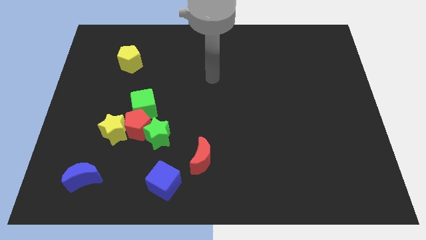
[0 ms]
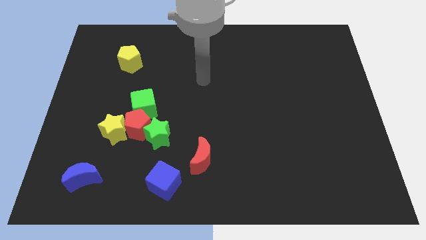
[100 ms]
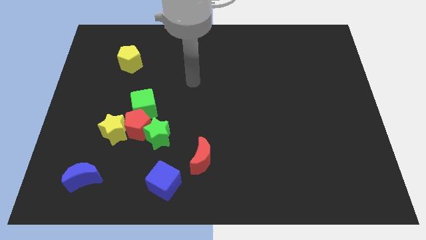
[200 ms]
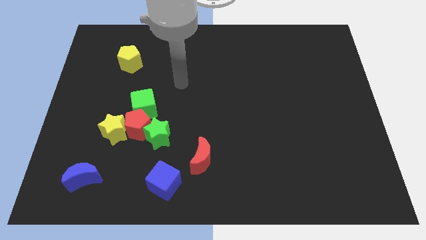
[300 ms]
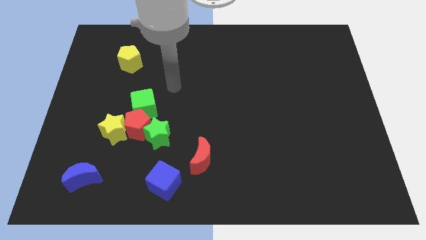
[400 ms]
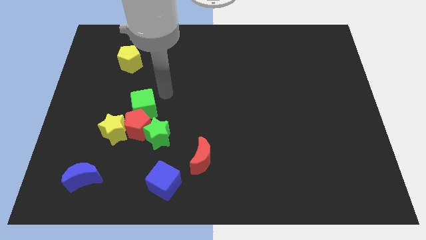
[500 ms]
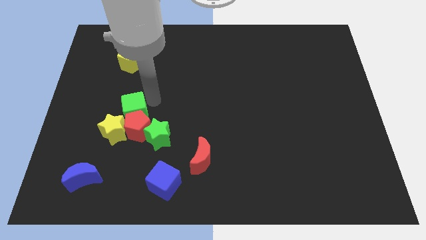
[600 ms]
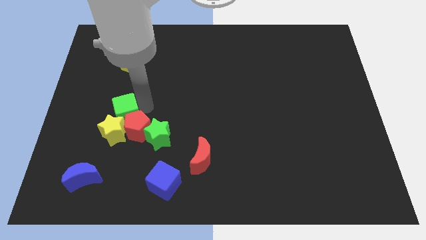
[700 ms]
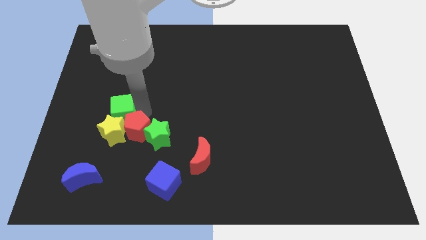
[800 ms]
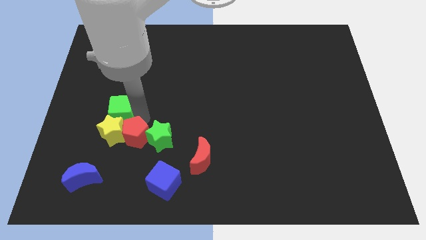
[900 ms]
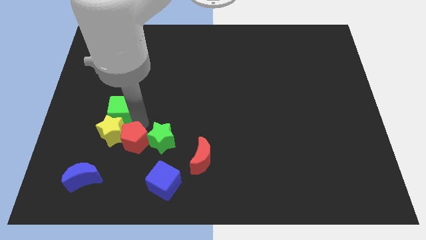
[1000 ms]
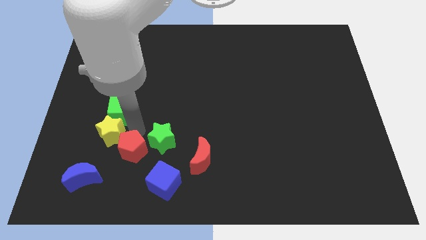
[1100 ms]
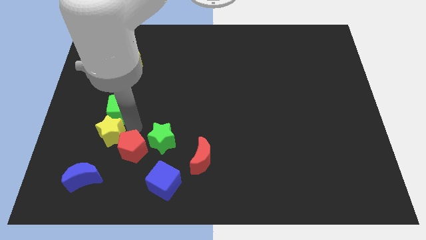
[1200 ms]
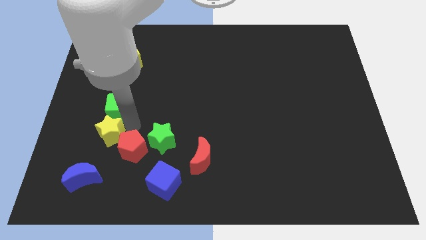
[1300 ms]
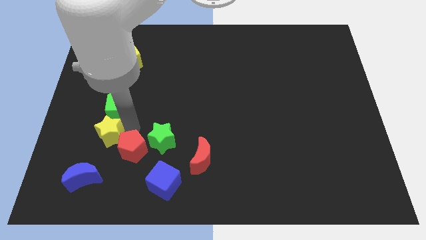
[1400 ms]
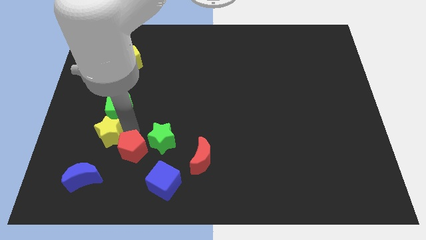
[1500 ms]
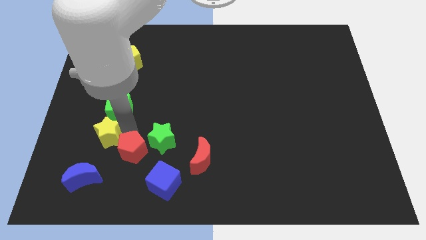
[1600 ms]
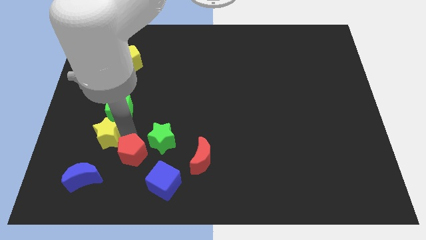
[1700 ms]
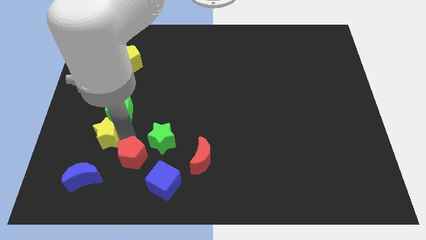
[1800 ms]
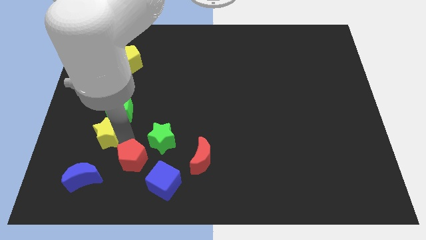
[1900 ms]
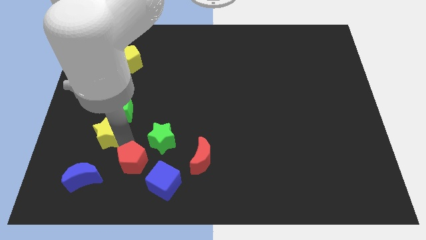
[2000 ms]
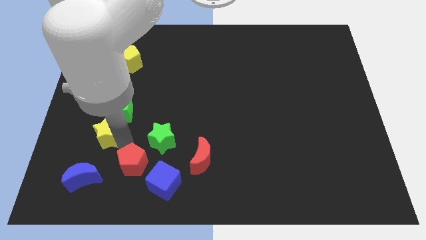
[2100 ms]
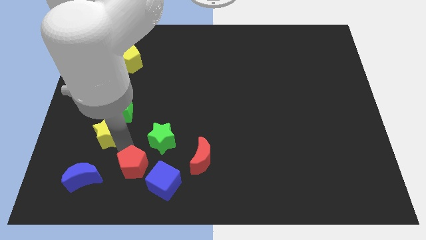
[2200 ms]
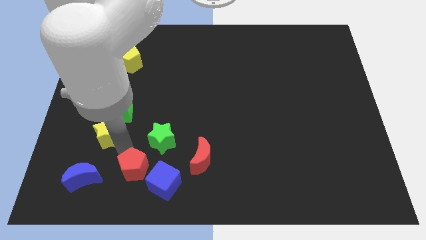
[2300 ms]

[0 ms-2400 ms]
pull the red pentagon apart from the group

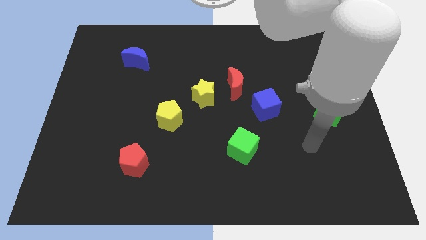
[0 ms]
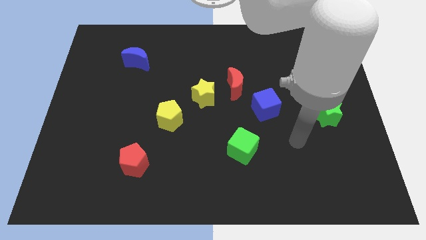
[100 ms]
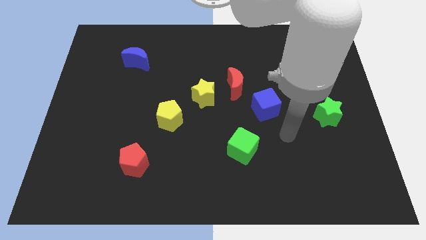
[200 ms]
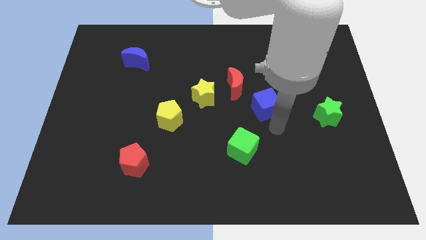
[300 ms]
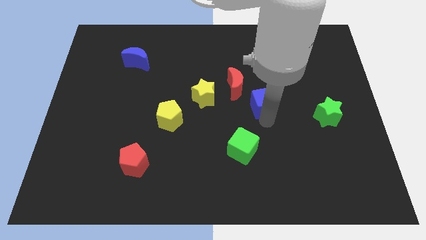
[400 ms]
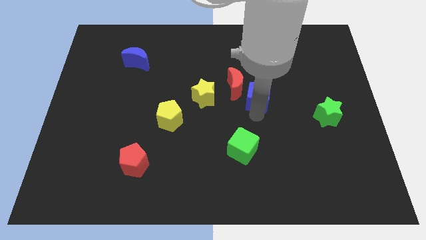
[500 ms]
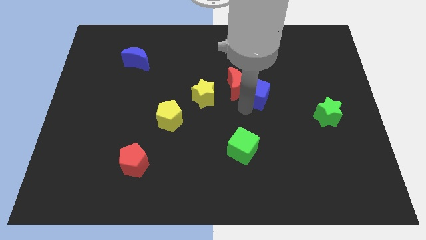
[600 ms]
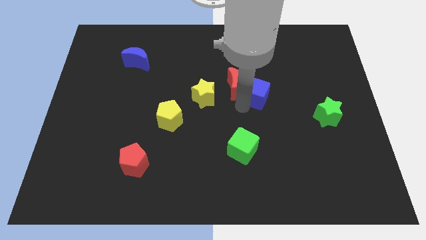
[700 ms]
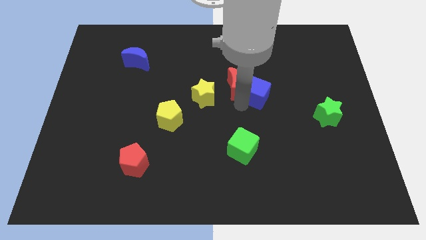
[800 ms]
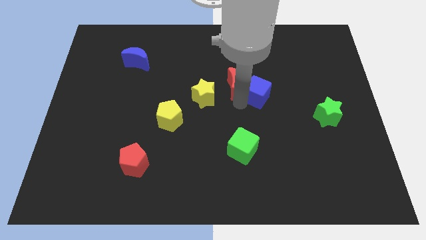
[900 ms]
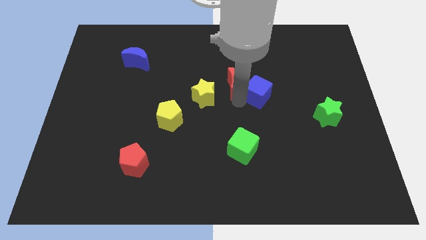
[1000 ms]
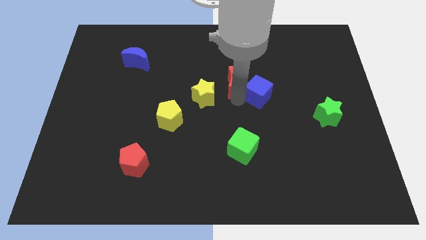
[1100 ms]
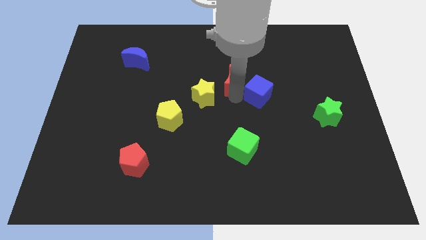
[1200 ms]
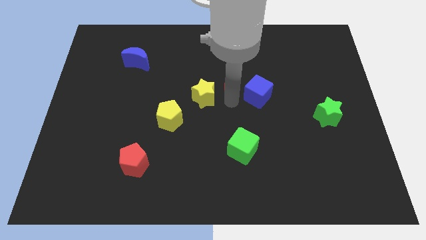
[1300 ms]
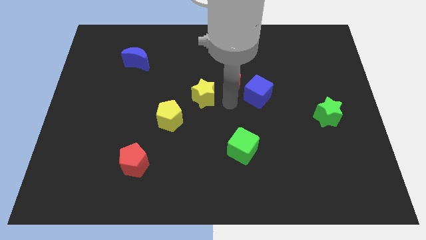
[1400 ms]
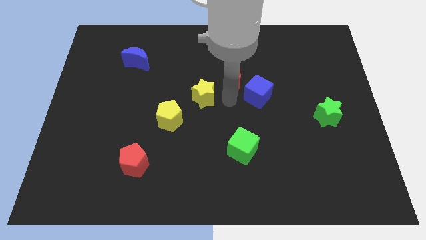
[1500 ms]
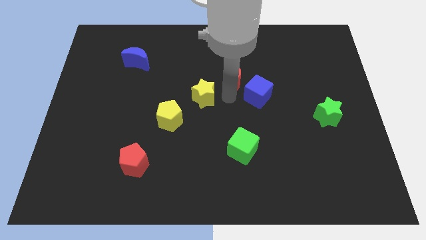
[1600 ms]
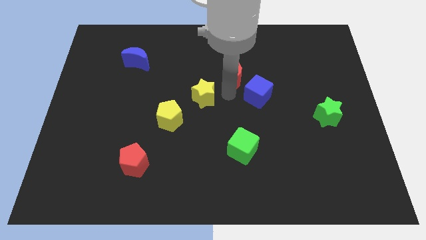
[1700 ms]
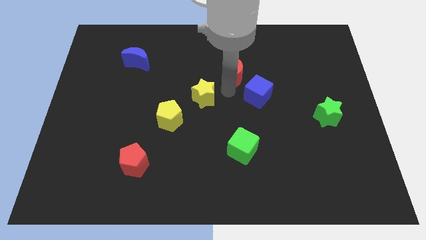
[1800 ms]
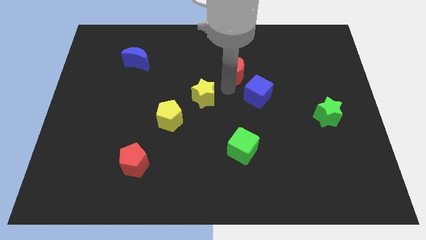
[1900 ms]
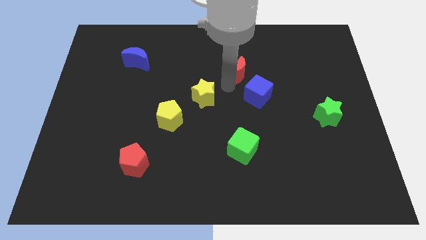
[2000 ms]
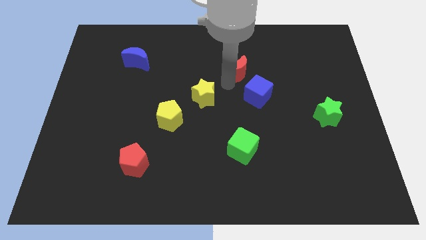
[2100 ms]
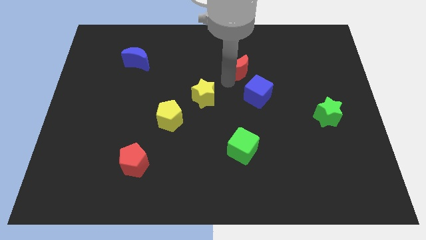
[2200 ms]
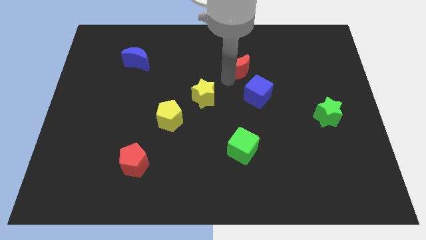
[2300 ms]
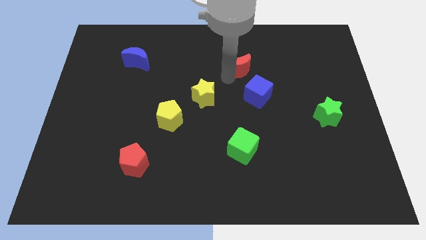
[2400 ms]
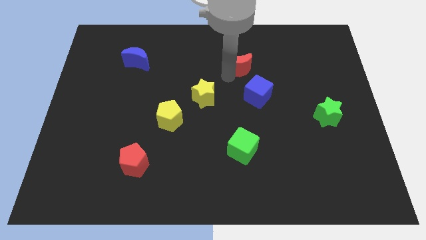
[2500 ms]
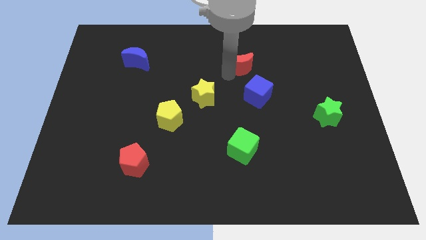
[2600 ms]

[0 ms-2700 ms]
separate the red moon from the yellow star and blue cube

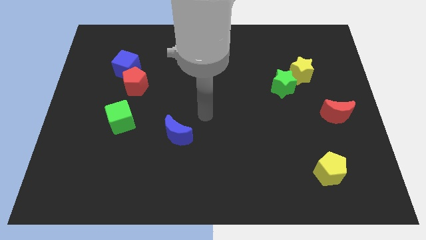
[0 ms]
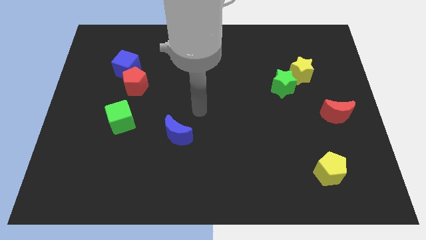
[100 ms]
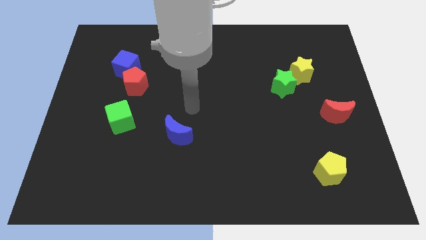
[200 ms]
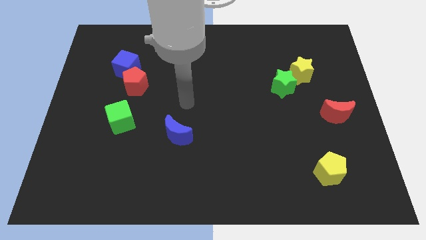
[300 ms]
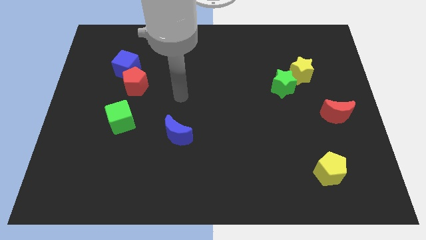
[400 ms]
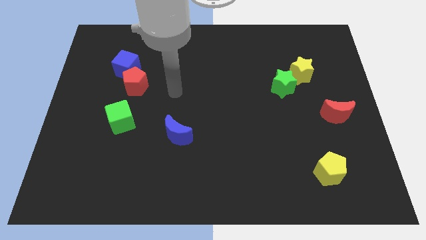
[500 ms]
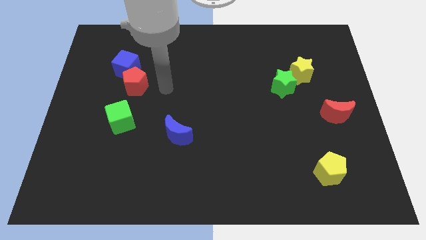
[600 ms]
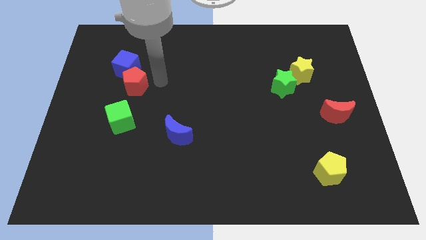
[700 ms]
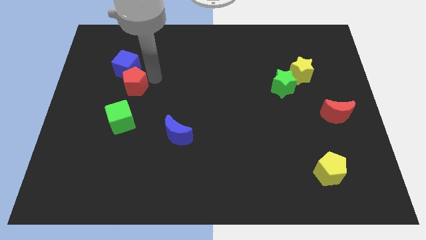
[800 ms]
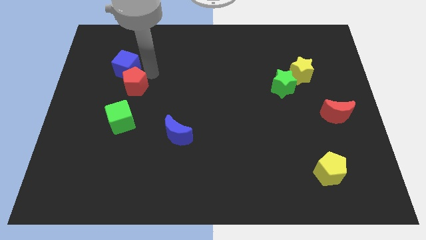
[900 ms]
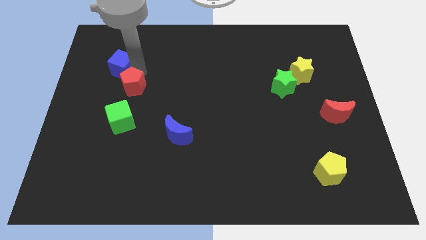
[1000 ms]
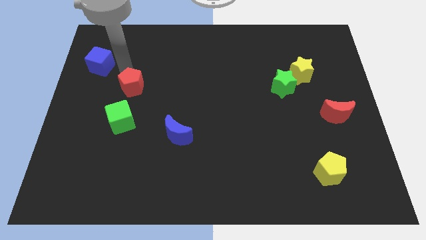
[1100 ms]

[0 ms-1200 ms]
move the red pentagon away from the blue cube

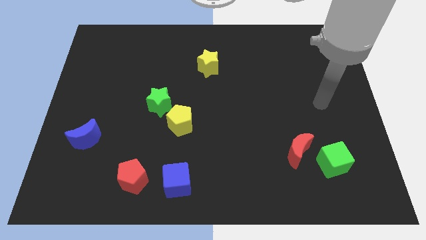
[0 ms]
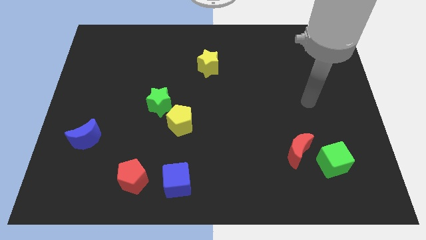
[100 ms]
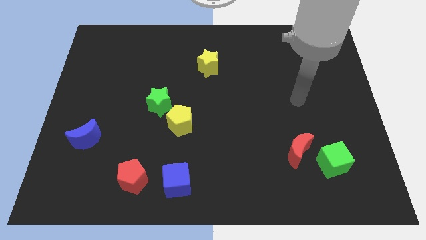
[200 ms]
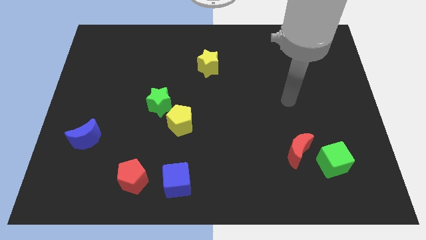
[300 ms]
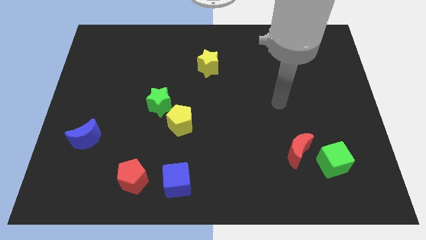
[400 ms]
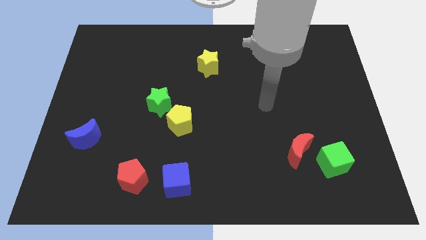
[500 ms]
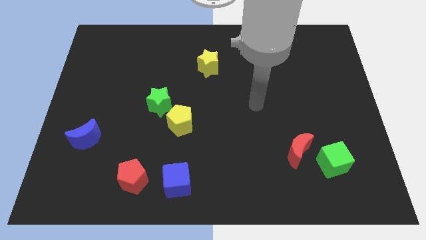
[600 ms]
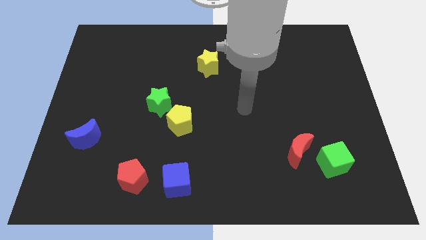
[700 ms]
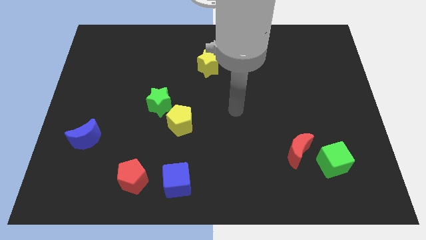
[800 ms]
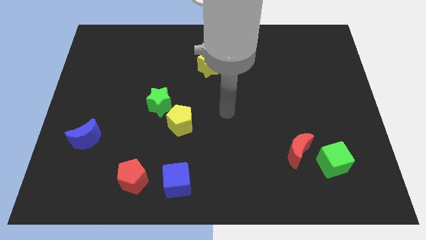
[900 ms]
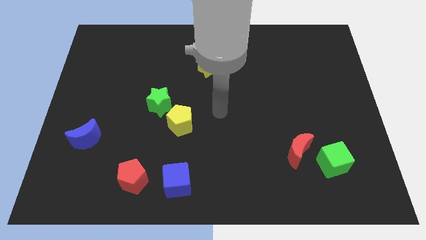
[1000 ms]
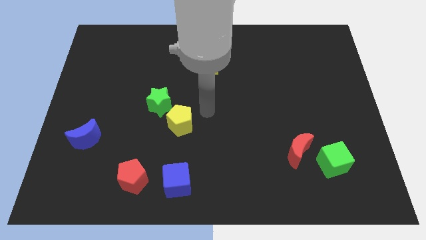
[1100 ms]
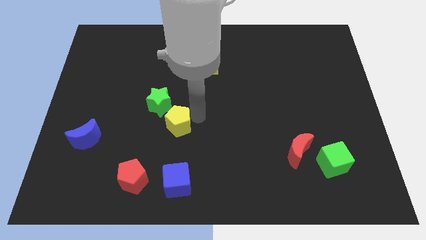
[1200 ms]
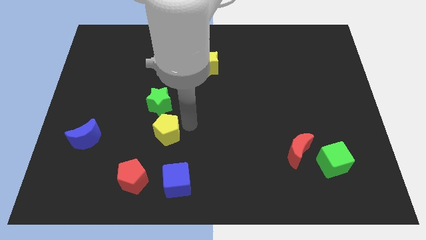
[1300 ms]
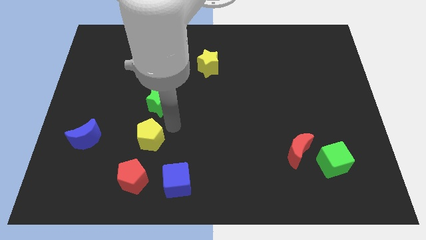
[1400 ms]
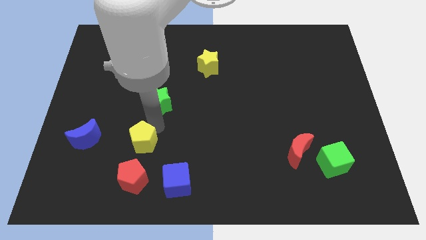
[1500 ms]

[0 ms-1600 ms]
pull the green star apart from the yellow pentagon

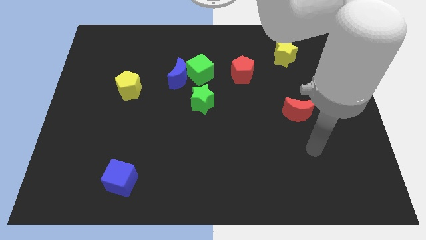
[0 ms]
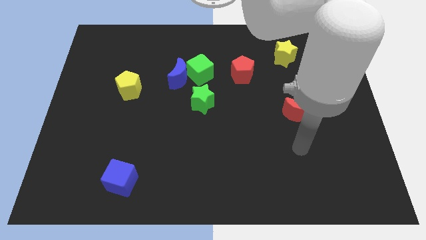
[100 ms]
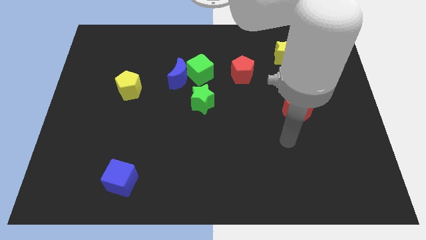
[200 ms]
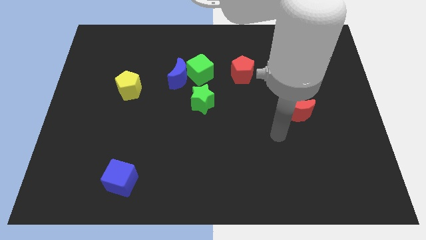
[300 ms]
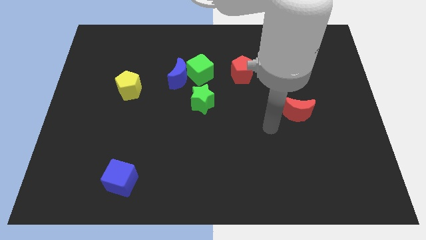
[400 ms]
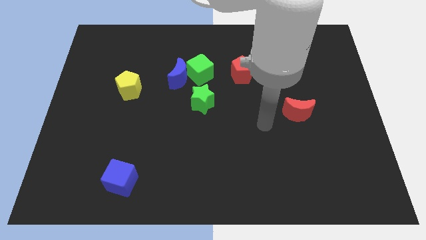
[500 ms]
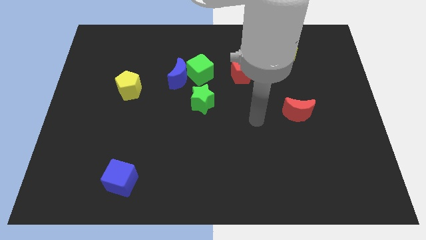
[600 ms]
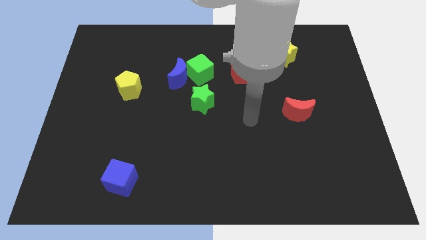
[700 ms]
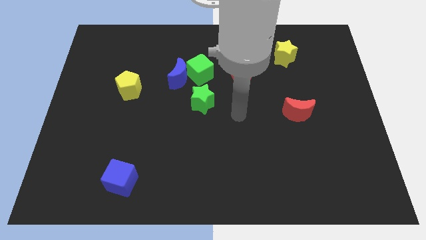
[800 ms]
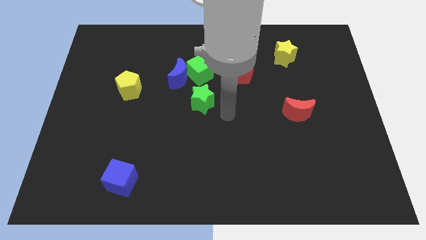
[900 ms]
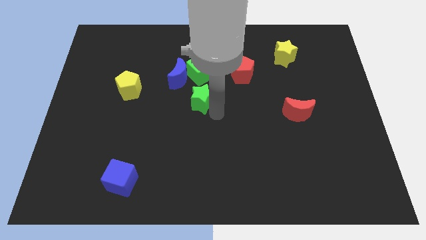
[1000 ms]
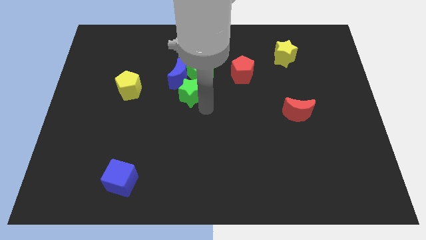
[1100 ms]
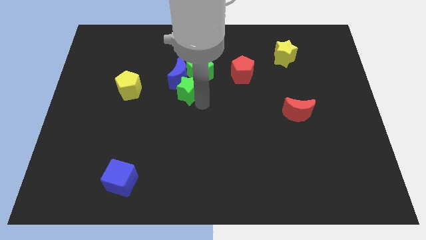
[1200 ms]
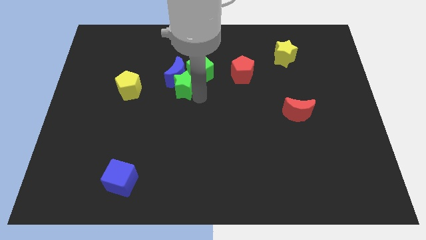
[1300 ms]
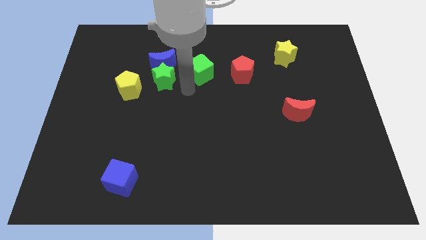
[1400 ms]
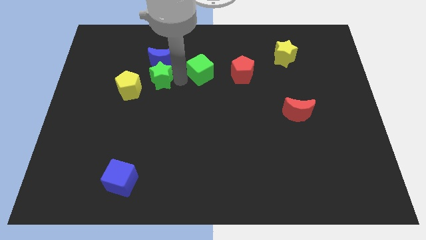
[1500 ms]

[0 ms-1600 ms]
move the green cube away from the blue moon and green star
